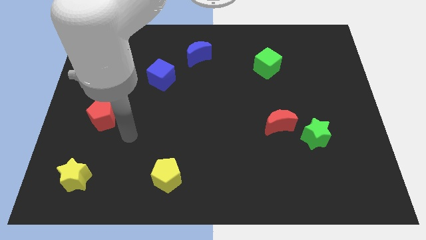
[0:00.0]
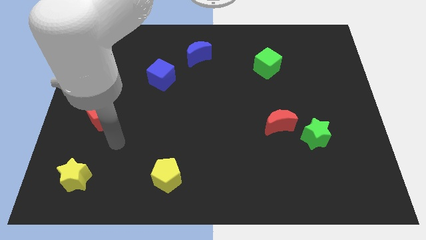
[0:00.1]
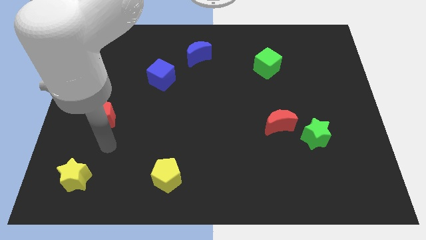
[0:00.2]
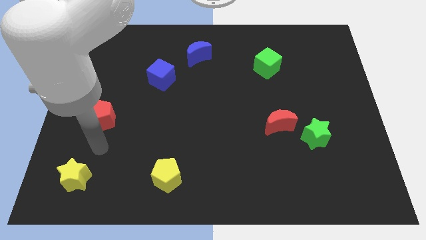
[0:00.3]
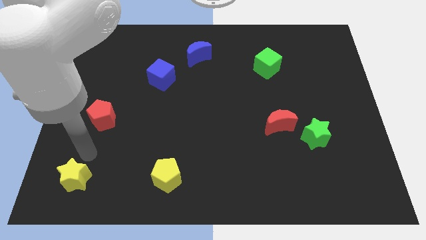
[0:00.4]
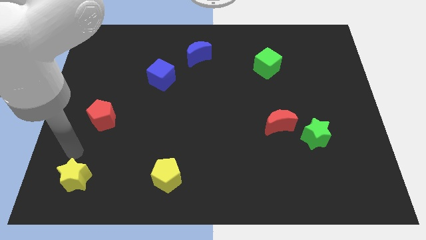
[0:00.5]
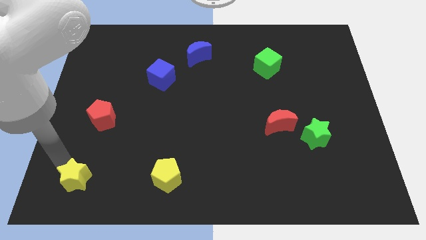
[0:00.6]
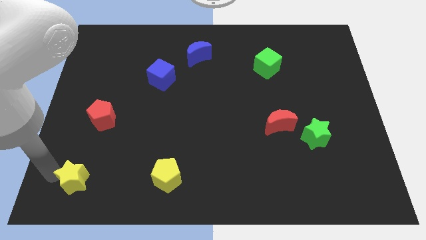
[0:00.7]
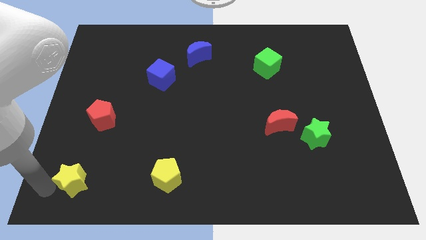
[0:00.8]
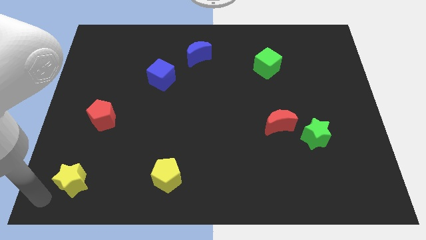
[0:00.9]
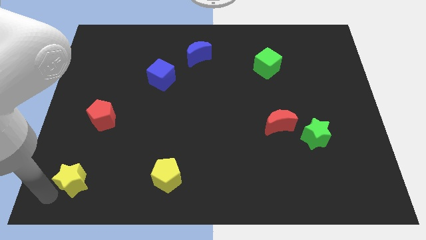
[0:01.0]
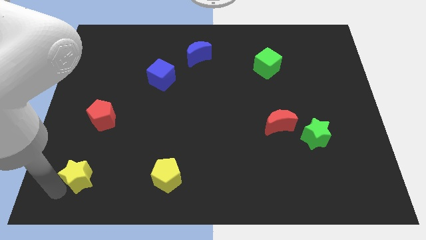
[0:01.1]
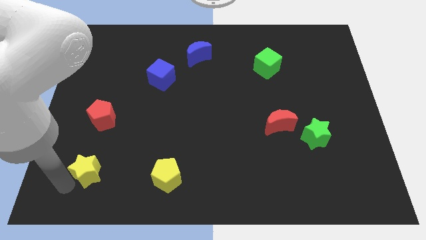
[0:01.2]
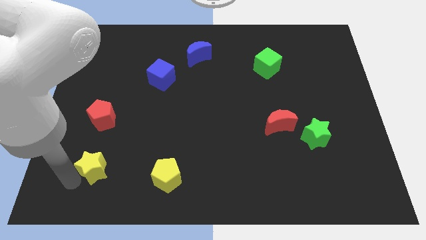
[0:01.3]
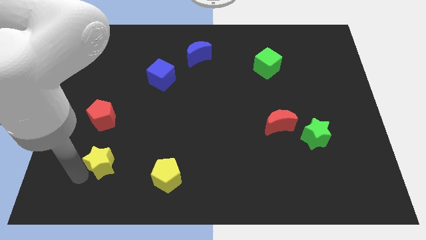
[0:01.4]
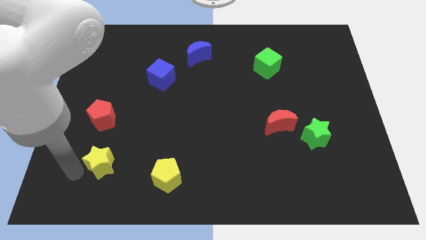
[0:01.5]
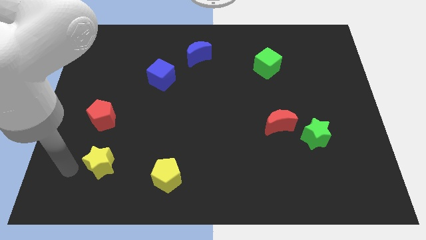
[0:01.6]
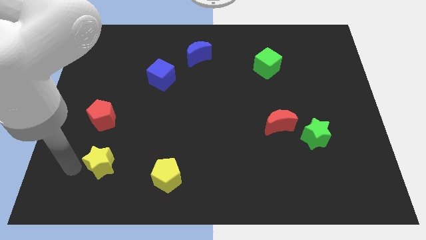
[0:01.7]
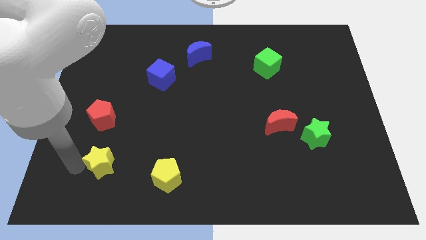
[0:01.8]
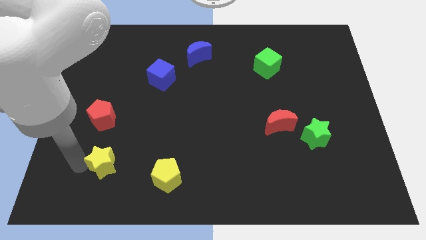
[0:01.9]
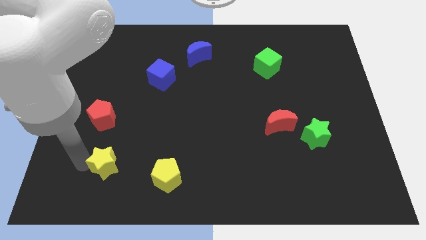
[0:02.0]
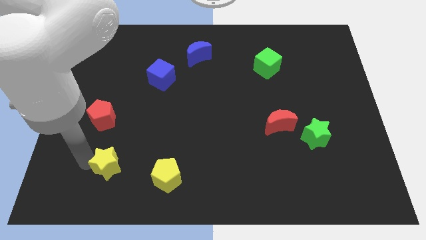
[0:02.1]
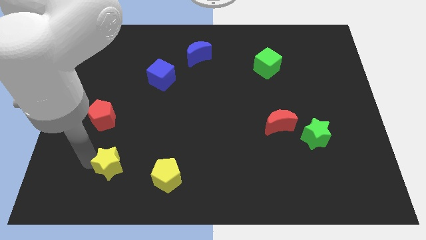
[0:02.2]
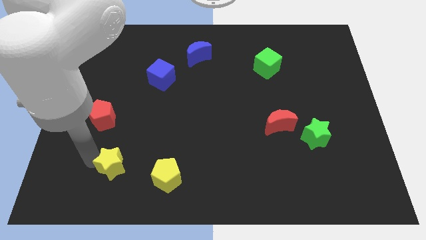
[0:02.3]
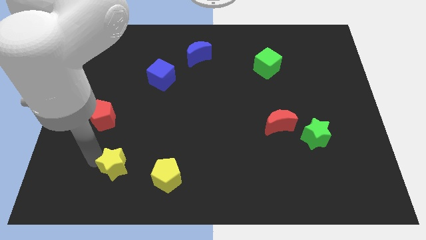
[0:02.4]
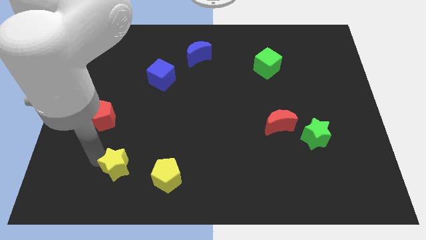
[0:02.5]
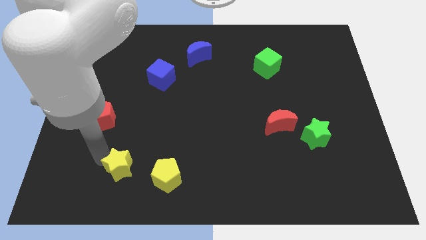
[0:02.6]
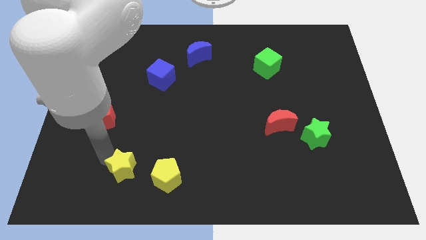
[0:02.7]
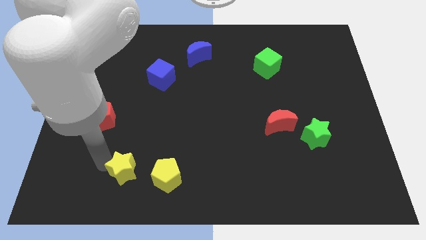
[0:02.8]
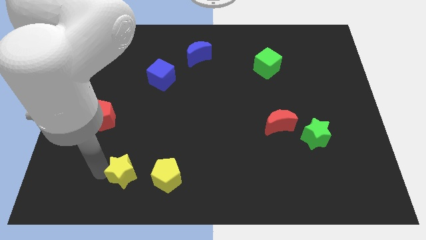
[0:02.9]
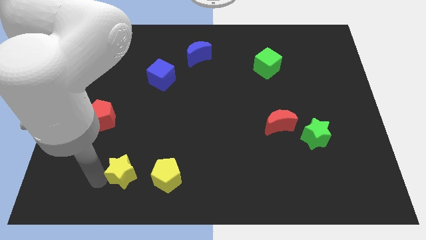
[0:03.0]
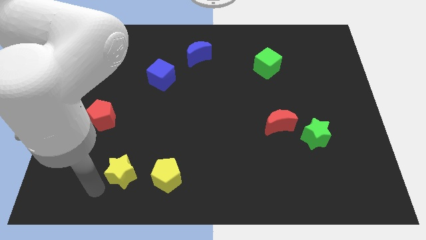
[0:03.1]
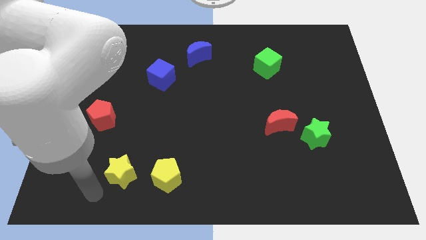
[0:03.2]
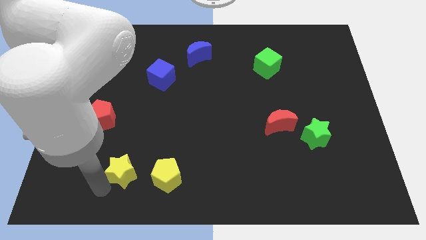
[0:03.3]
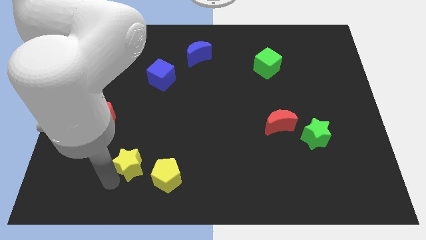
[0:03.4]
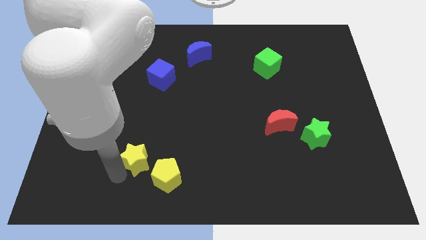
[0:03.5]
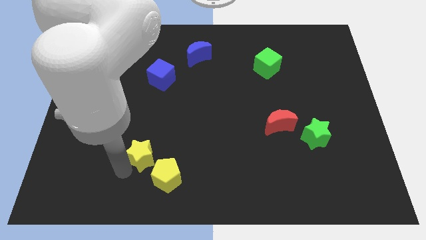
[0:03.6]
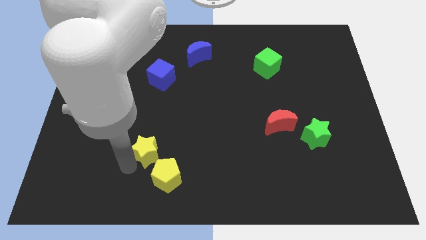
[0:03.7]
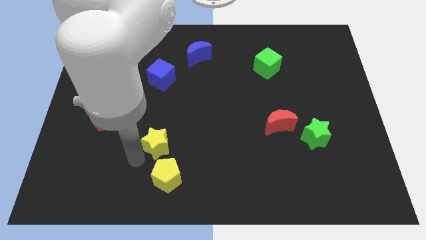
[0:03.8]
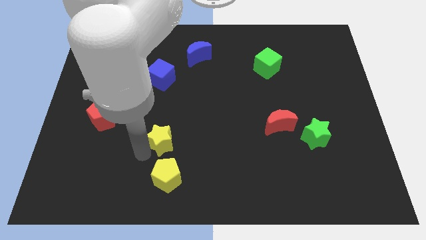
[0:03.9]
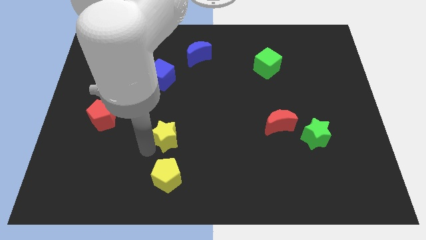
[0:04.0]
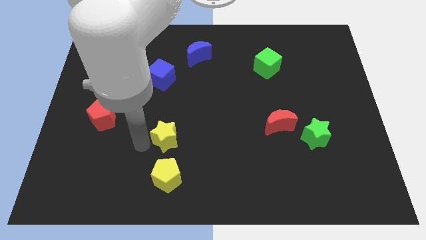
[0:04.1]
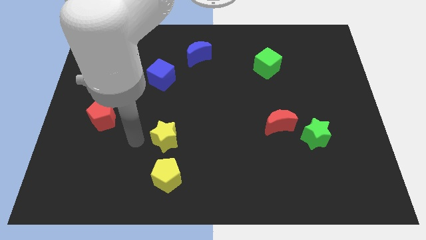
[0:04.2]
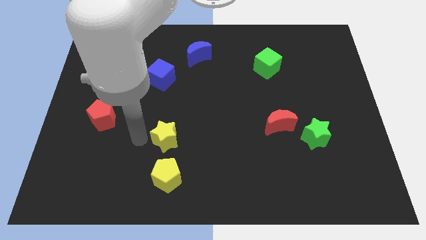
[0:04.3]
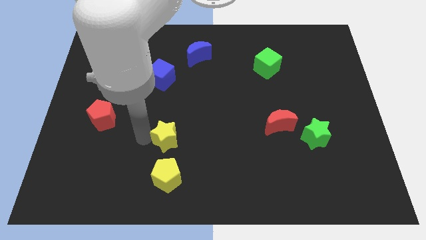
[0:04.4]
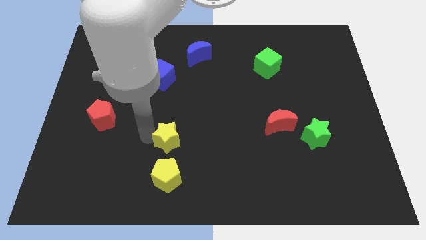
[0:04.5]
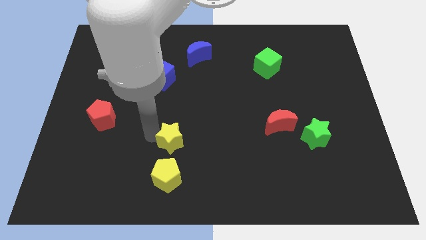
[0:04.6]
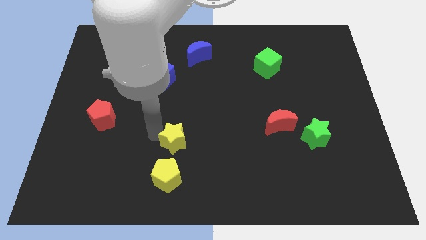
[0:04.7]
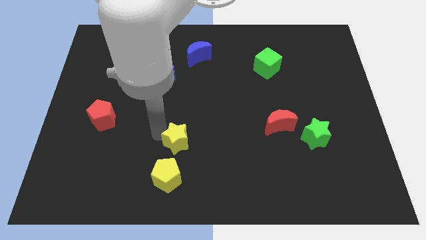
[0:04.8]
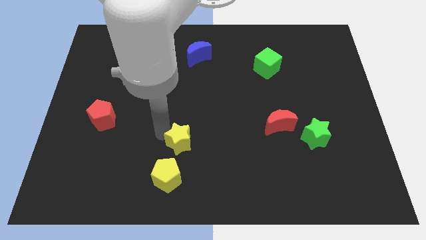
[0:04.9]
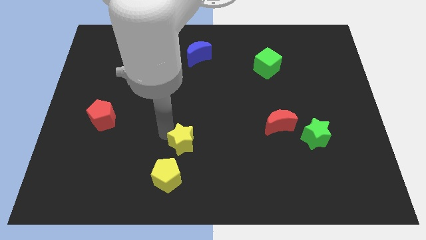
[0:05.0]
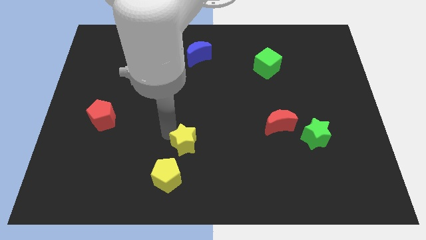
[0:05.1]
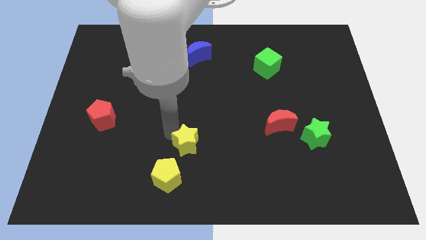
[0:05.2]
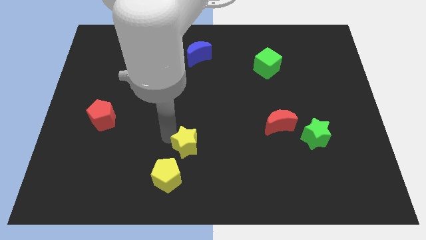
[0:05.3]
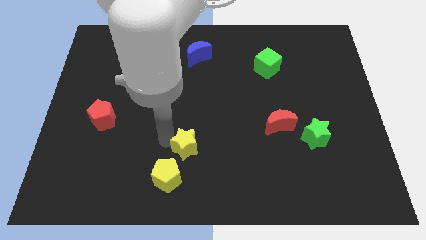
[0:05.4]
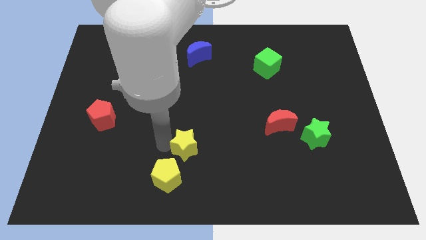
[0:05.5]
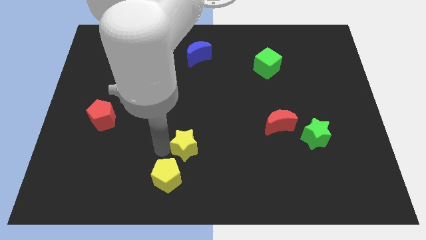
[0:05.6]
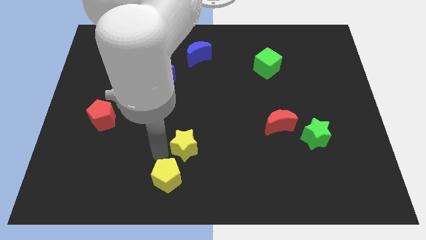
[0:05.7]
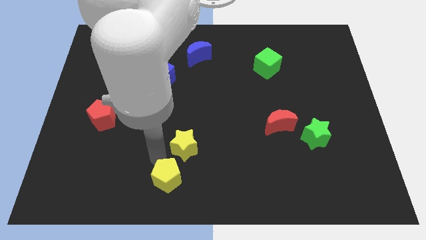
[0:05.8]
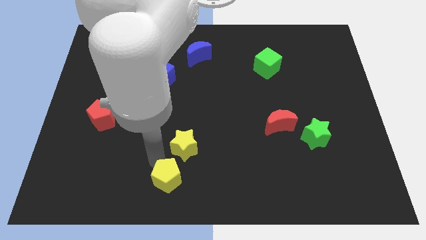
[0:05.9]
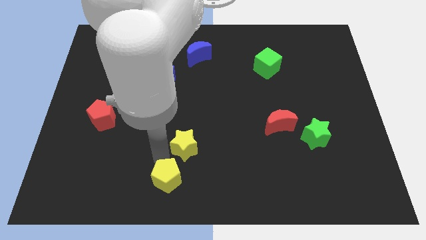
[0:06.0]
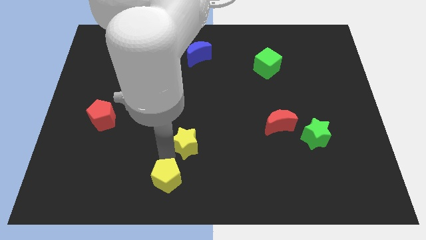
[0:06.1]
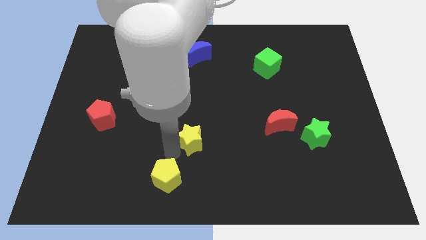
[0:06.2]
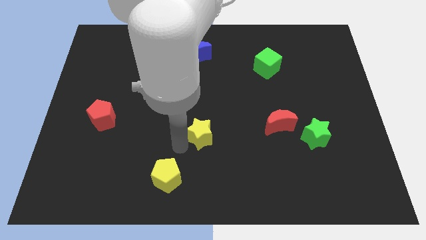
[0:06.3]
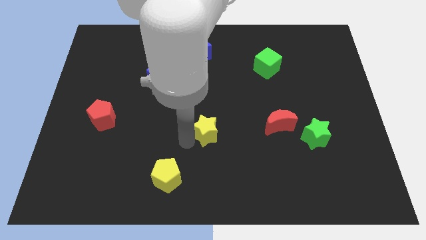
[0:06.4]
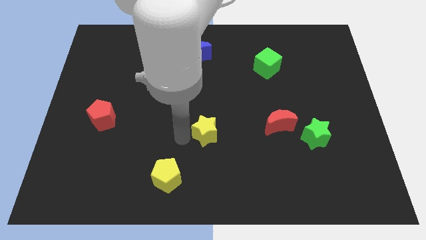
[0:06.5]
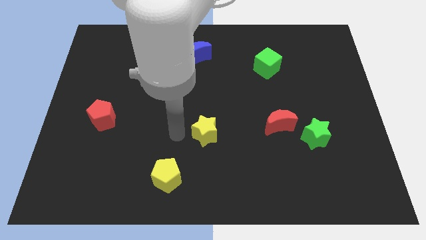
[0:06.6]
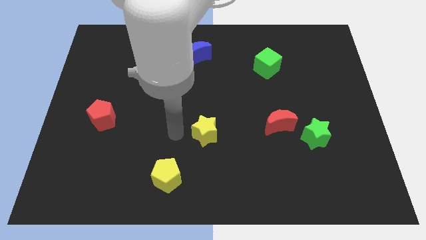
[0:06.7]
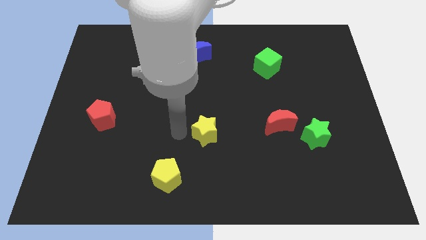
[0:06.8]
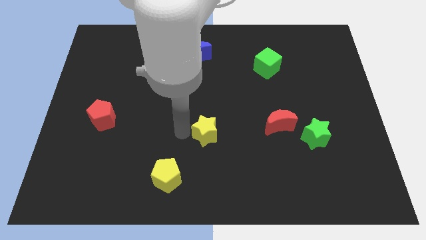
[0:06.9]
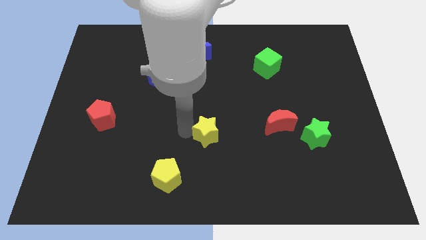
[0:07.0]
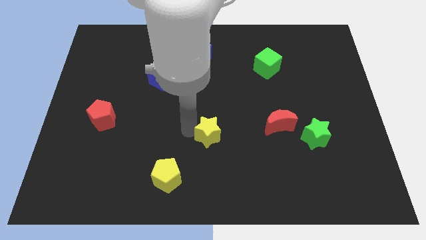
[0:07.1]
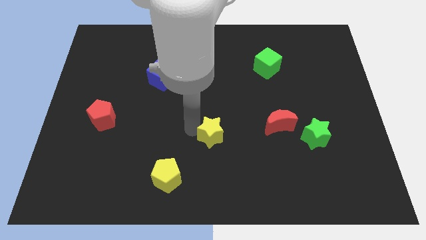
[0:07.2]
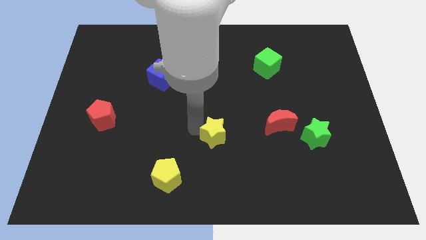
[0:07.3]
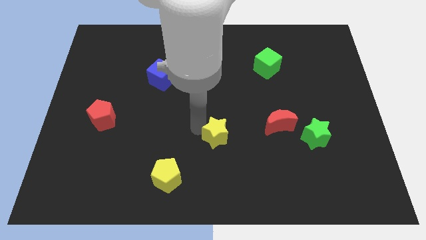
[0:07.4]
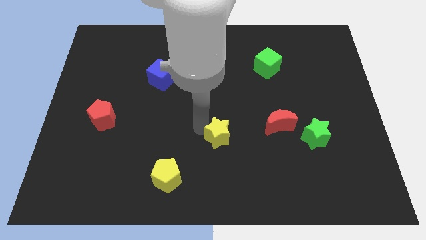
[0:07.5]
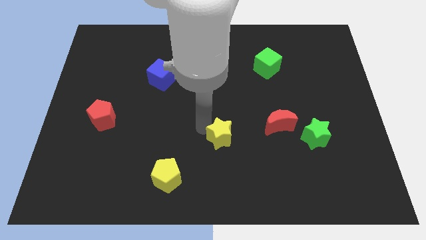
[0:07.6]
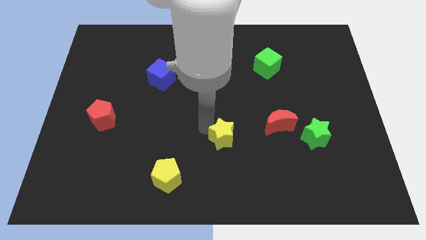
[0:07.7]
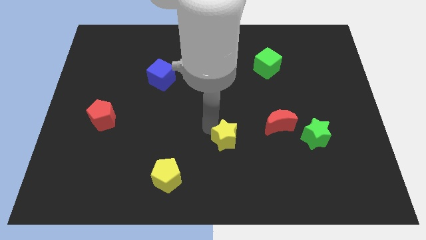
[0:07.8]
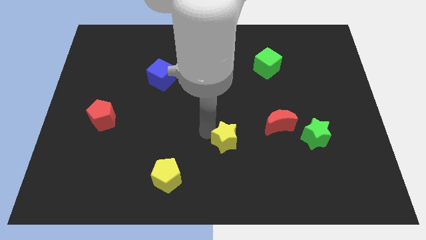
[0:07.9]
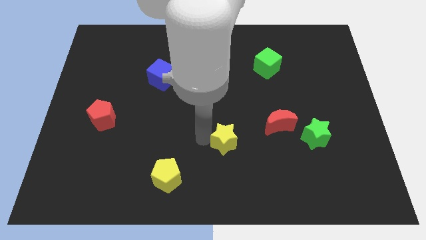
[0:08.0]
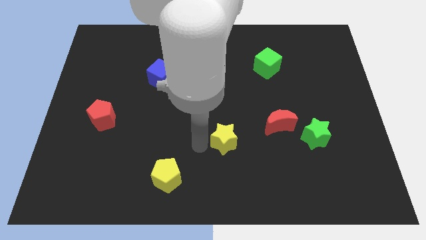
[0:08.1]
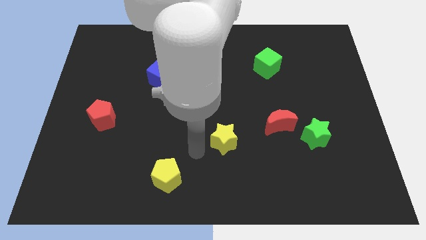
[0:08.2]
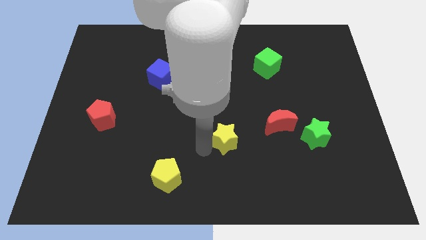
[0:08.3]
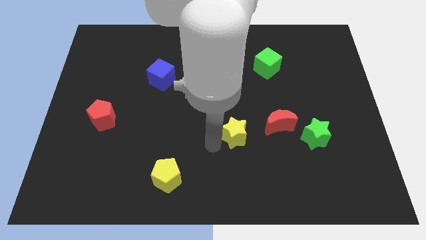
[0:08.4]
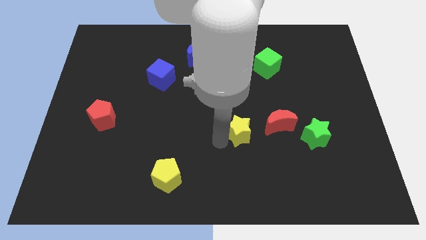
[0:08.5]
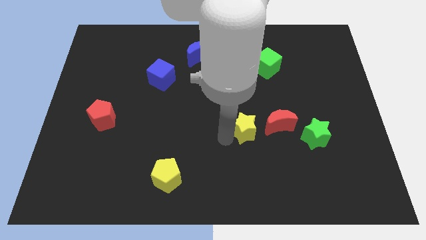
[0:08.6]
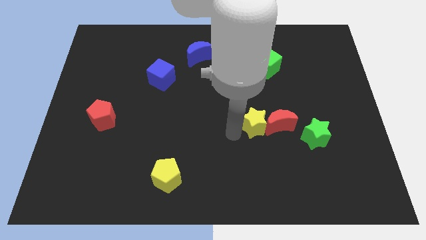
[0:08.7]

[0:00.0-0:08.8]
put the yellow star close to the red moon
